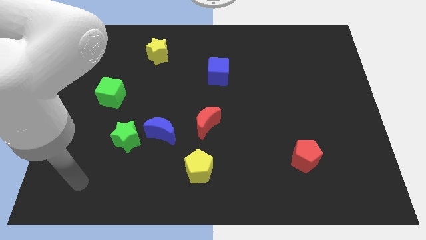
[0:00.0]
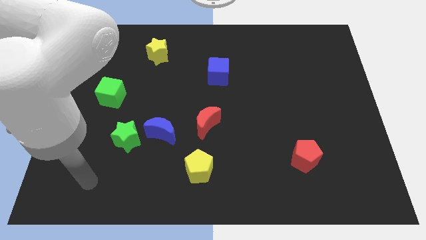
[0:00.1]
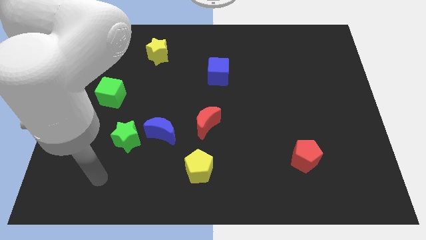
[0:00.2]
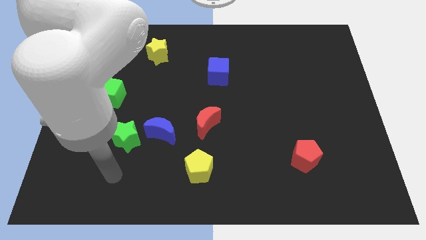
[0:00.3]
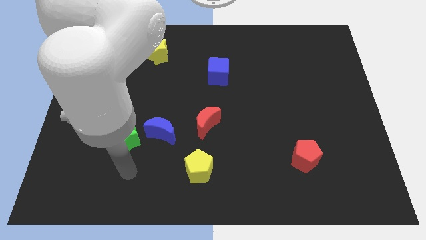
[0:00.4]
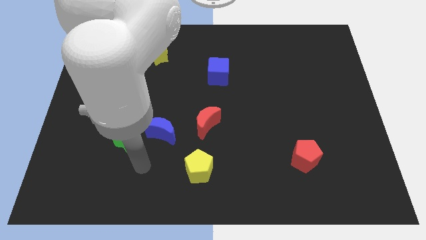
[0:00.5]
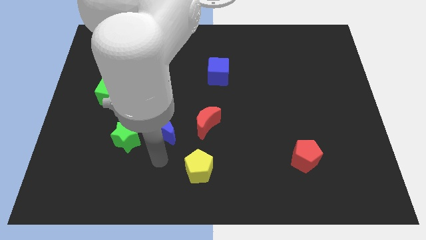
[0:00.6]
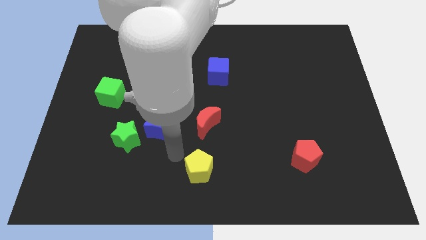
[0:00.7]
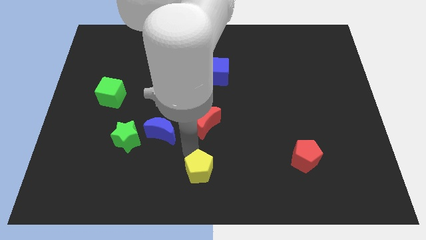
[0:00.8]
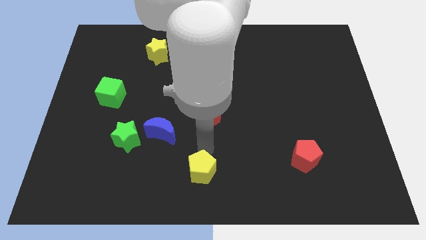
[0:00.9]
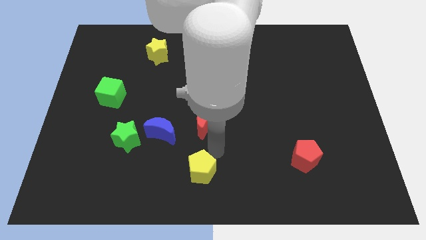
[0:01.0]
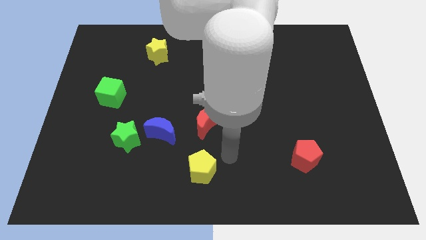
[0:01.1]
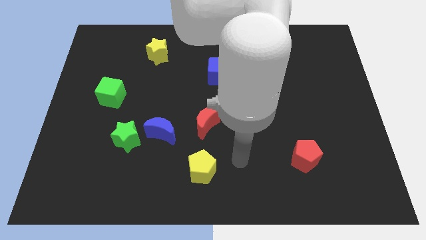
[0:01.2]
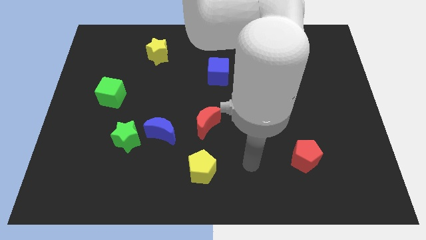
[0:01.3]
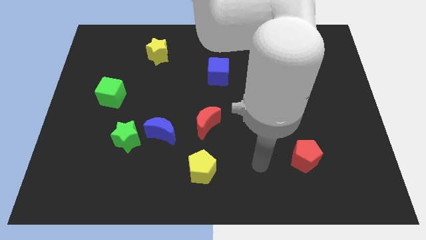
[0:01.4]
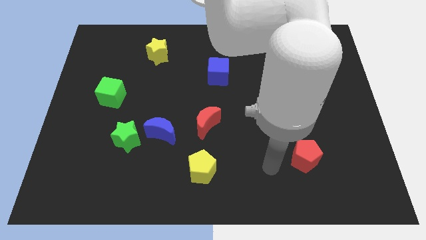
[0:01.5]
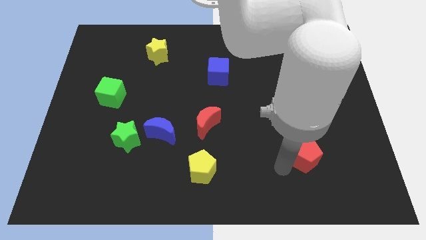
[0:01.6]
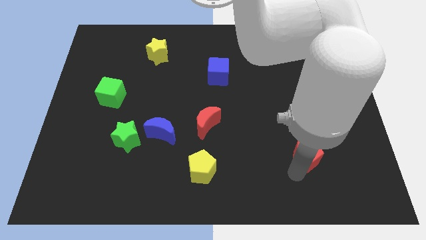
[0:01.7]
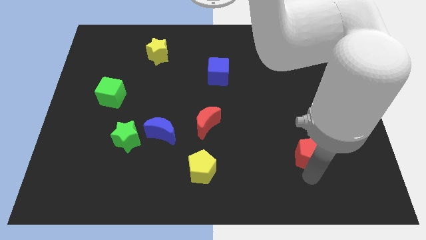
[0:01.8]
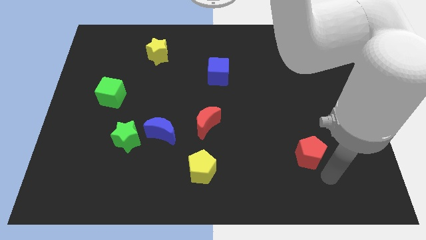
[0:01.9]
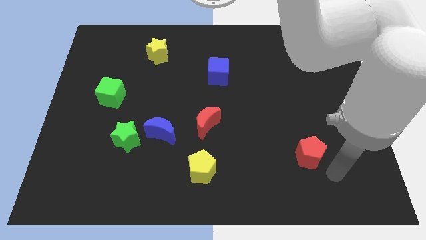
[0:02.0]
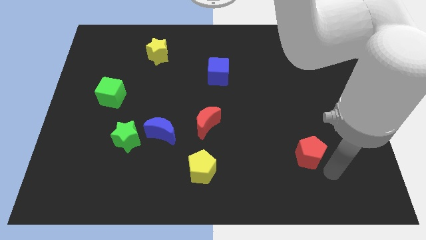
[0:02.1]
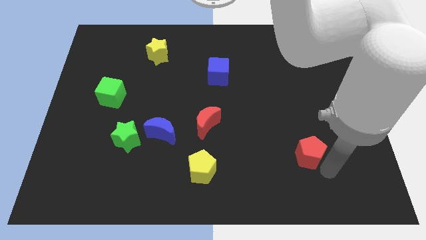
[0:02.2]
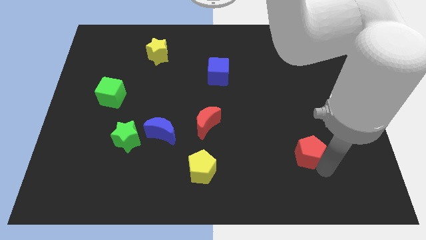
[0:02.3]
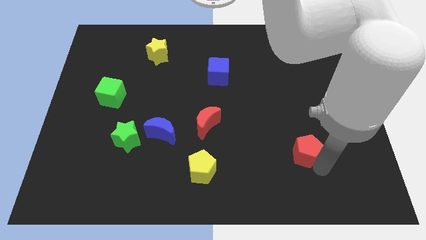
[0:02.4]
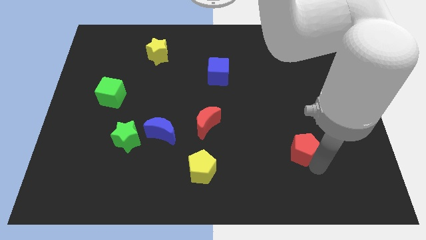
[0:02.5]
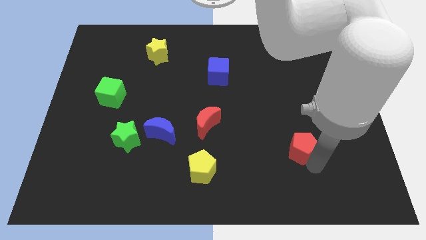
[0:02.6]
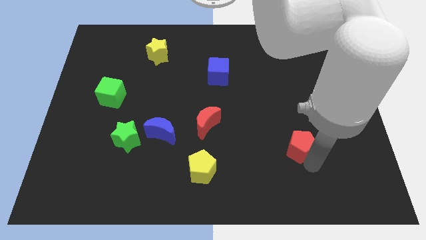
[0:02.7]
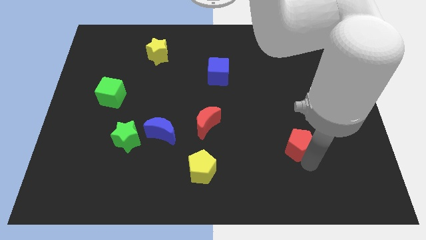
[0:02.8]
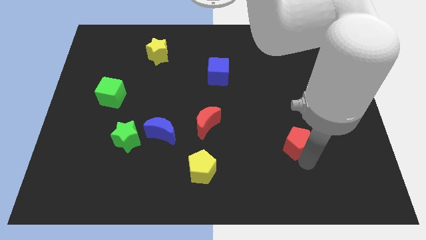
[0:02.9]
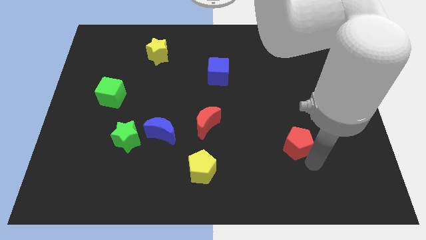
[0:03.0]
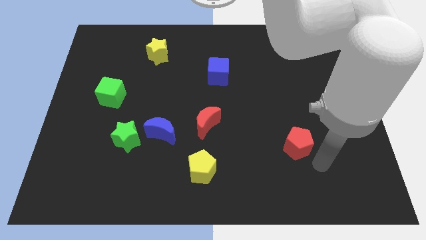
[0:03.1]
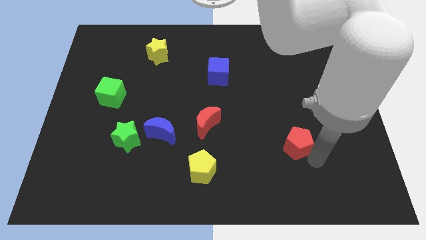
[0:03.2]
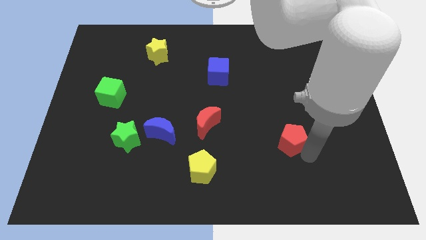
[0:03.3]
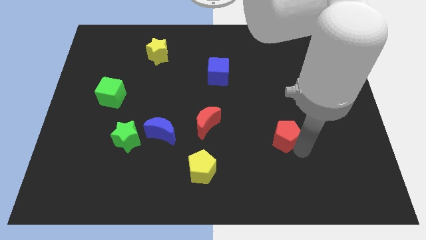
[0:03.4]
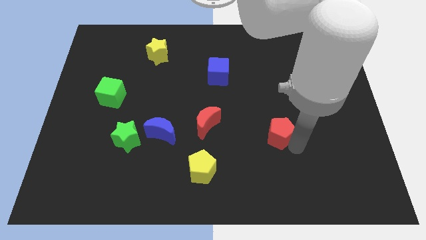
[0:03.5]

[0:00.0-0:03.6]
slightly move the red pentagon diagonally up and left

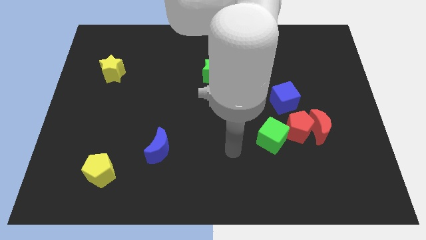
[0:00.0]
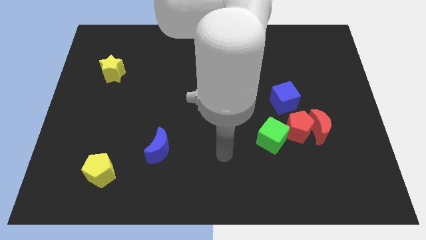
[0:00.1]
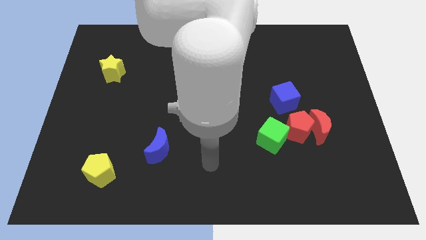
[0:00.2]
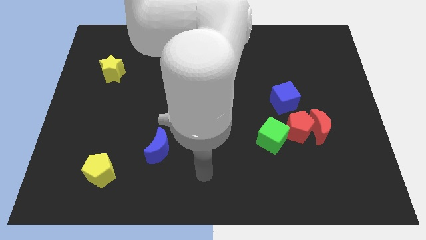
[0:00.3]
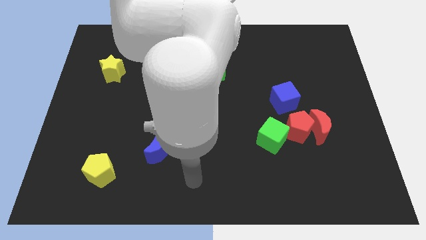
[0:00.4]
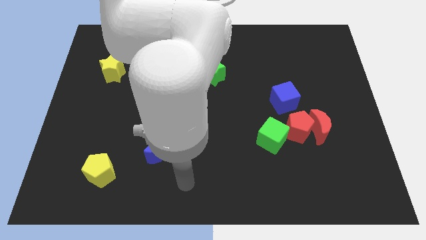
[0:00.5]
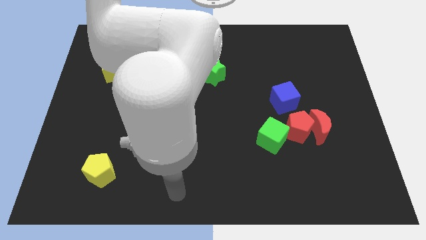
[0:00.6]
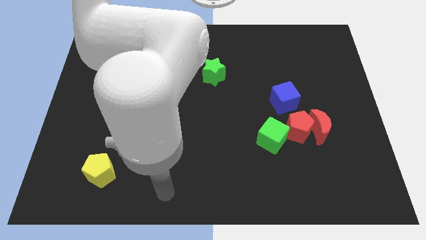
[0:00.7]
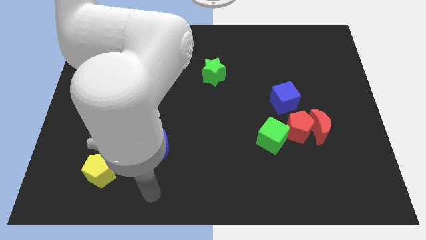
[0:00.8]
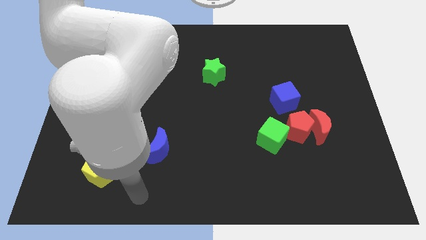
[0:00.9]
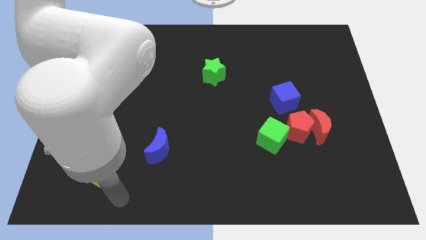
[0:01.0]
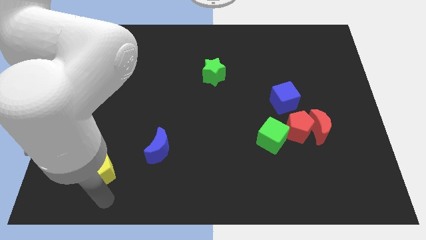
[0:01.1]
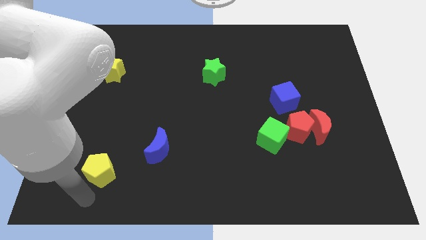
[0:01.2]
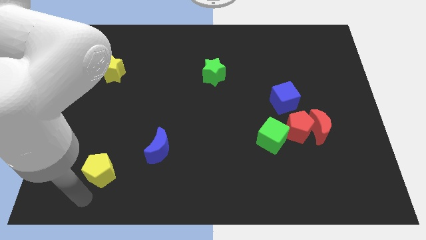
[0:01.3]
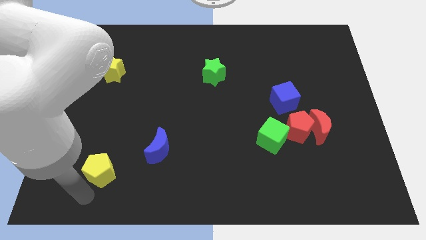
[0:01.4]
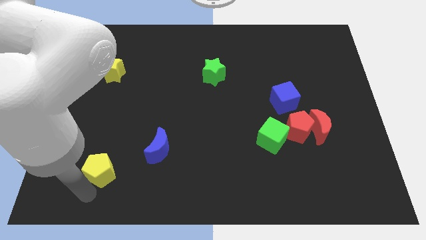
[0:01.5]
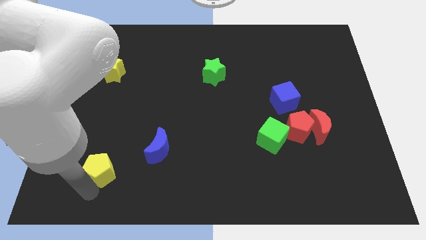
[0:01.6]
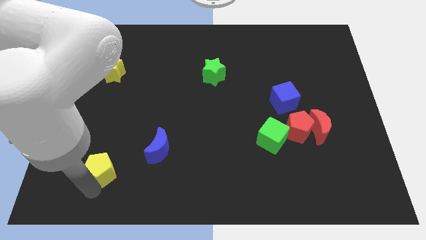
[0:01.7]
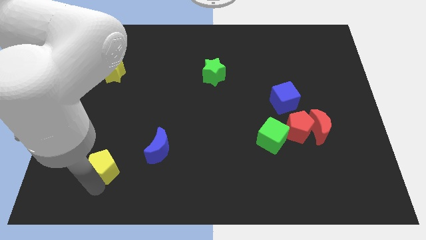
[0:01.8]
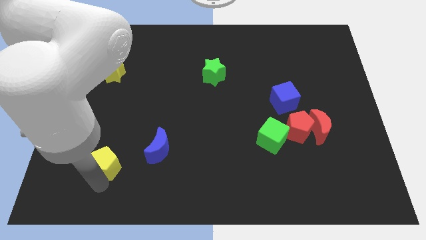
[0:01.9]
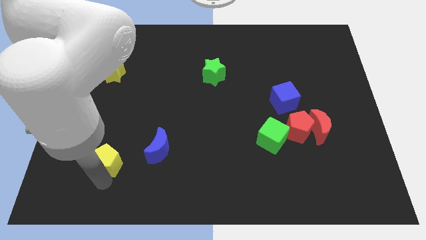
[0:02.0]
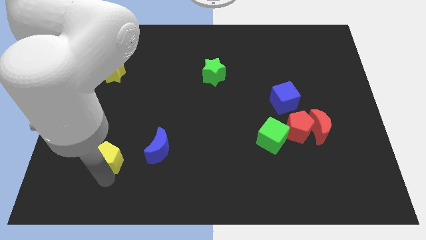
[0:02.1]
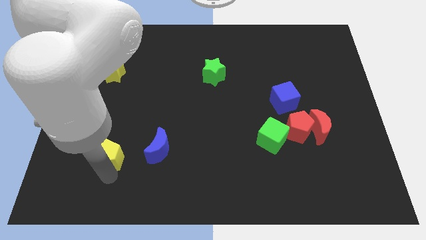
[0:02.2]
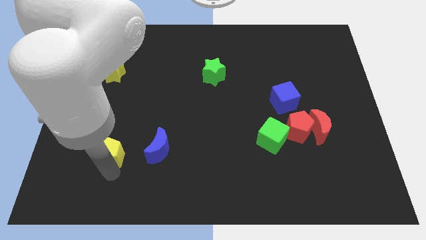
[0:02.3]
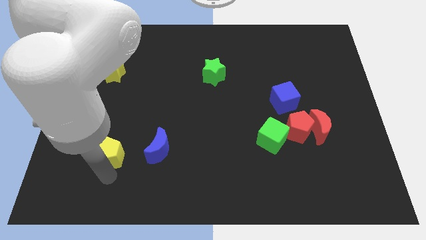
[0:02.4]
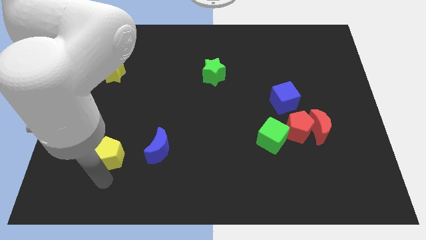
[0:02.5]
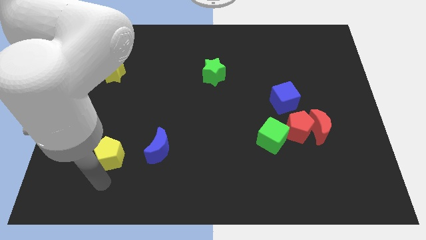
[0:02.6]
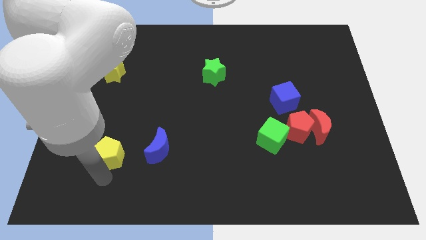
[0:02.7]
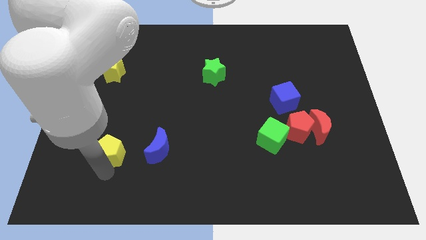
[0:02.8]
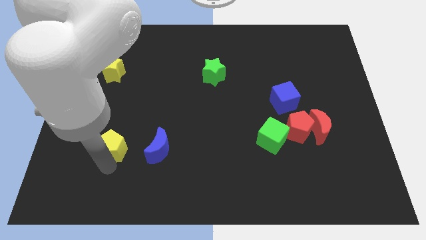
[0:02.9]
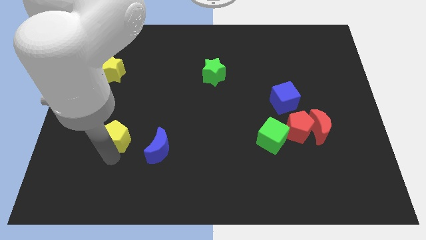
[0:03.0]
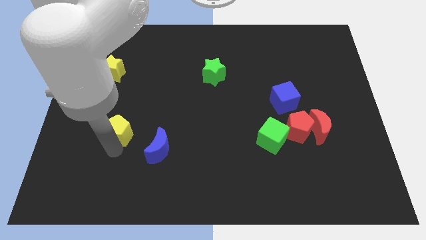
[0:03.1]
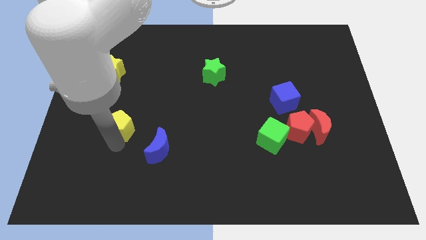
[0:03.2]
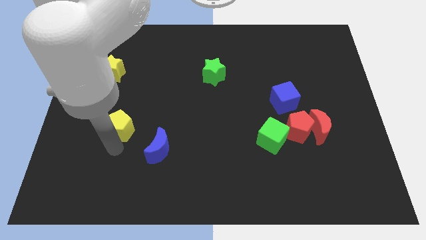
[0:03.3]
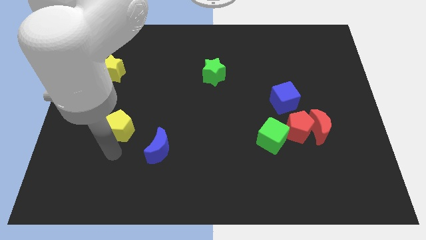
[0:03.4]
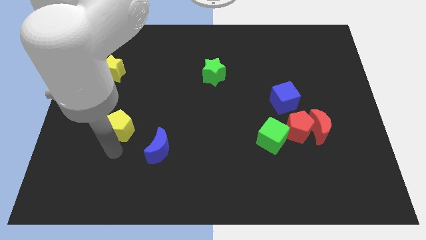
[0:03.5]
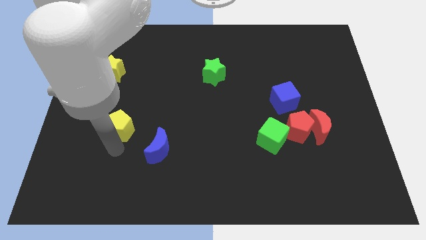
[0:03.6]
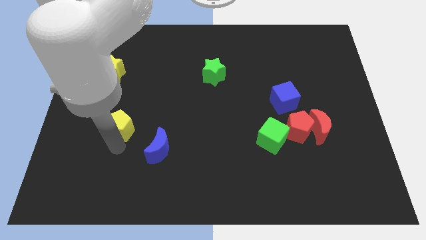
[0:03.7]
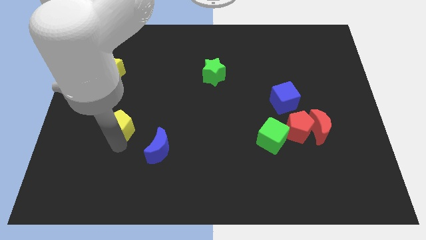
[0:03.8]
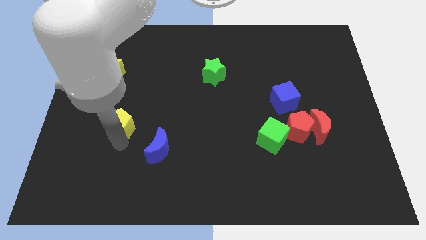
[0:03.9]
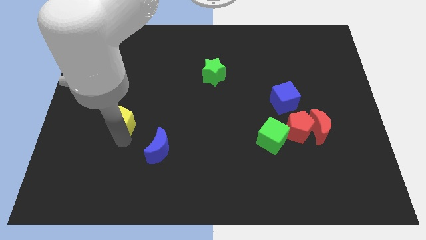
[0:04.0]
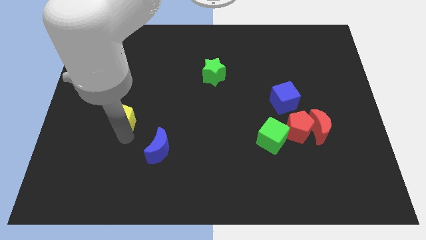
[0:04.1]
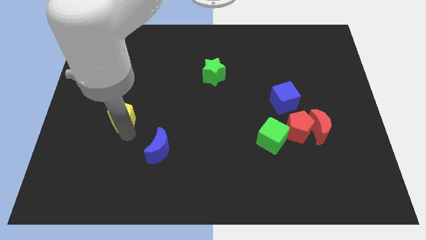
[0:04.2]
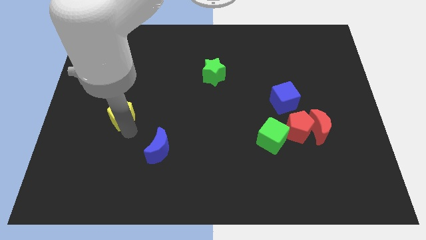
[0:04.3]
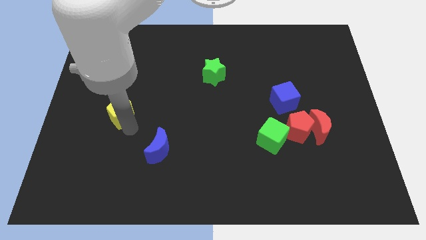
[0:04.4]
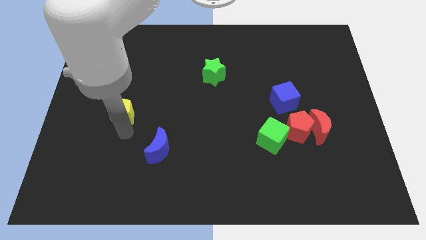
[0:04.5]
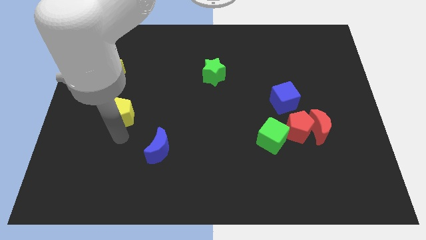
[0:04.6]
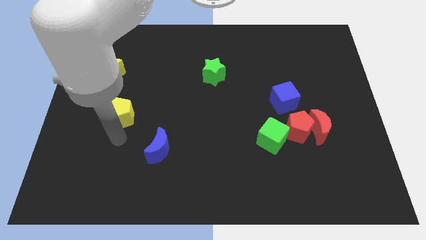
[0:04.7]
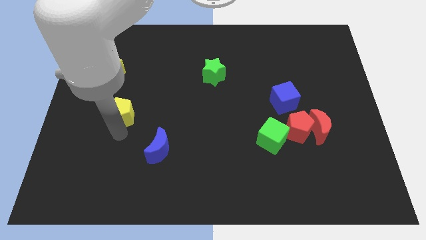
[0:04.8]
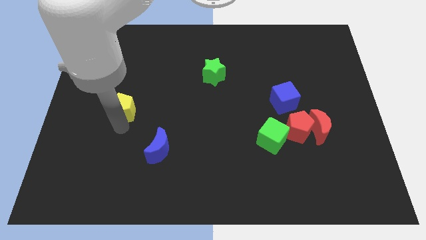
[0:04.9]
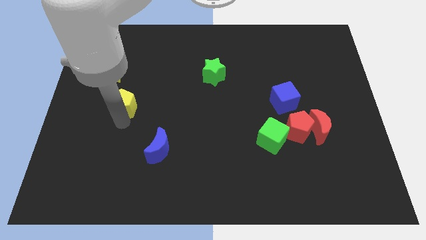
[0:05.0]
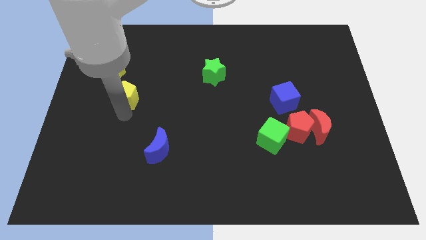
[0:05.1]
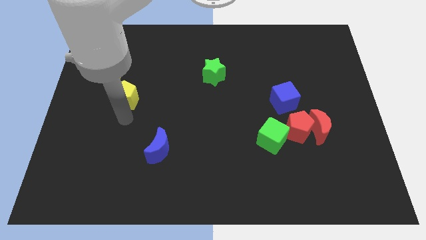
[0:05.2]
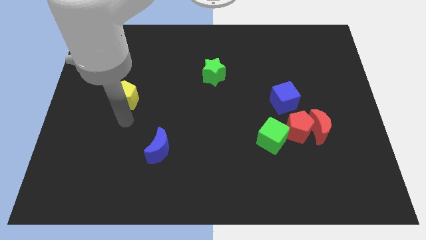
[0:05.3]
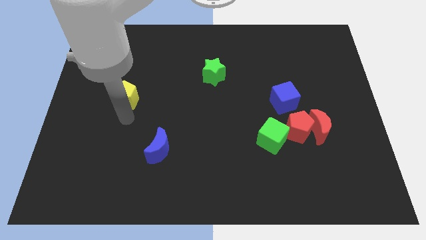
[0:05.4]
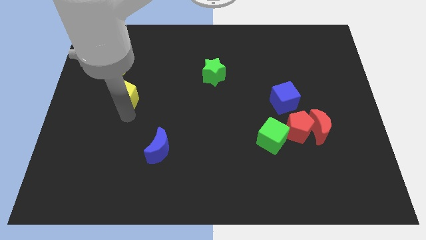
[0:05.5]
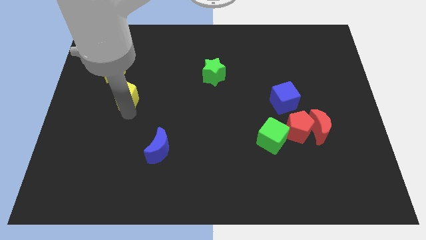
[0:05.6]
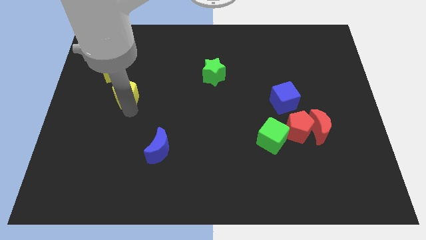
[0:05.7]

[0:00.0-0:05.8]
slide the yellow pentagon upwards
